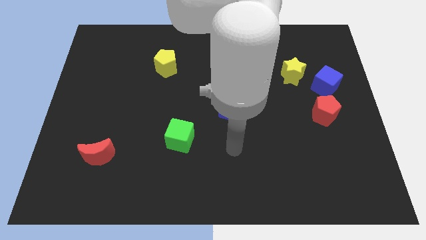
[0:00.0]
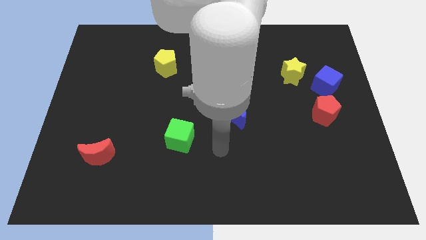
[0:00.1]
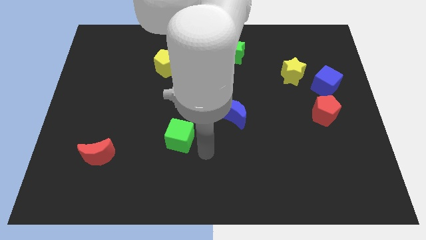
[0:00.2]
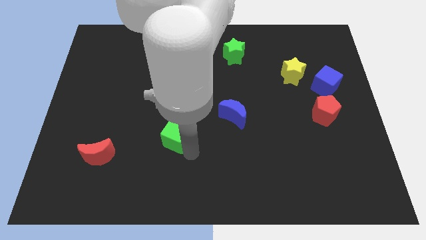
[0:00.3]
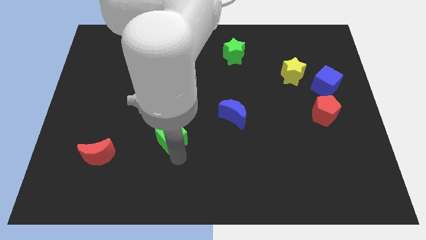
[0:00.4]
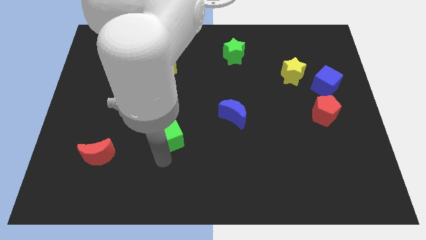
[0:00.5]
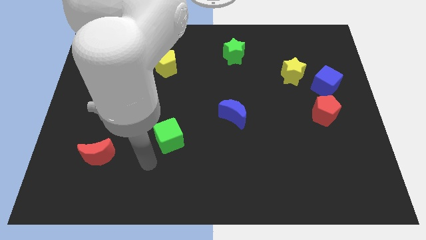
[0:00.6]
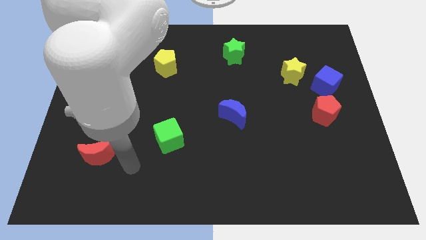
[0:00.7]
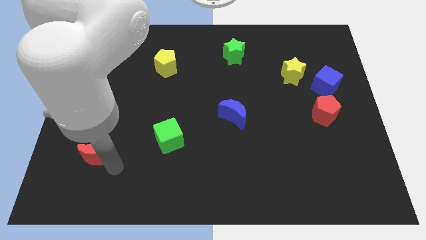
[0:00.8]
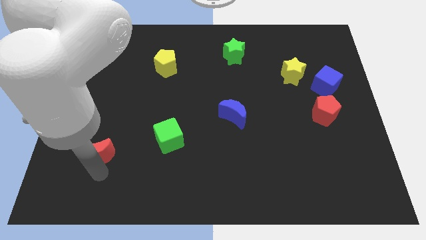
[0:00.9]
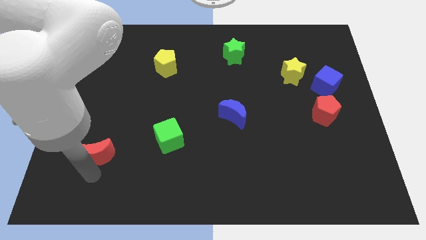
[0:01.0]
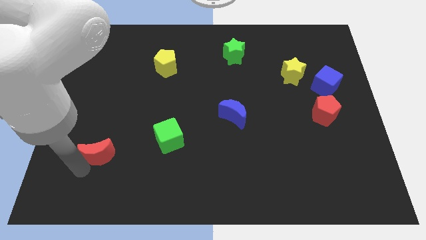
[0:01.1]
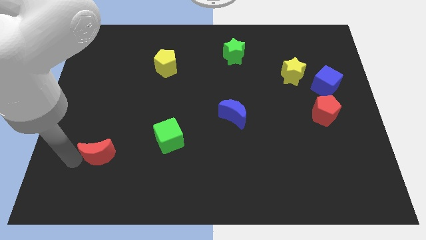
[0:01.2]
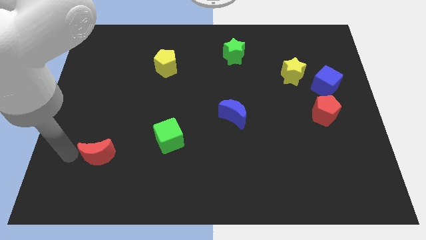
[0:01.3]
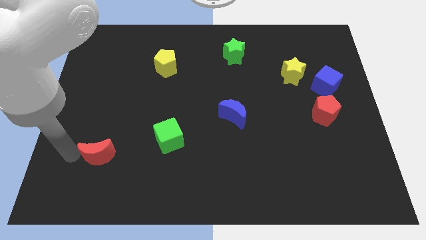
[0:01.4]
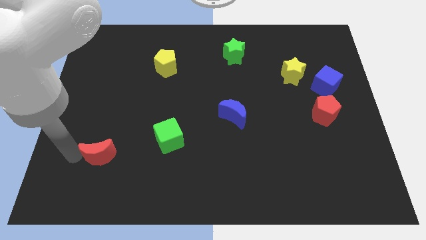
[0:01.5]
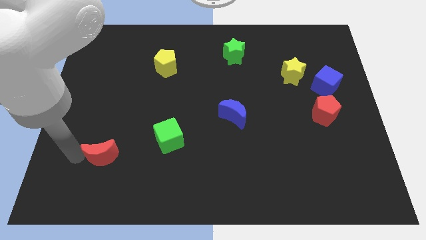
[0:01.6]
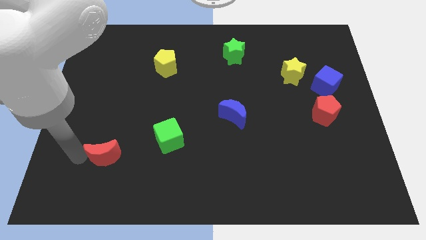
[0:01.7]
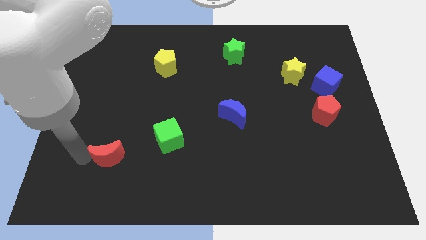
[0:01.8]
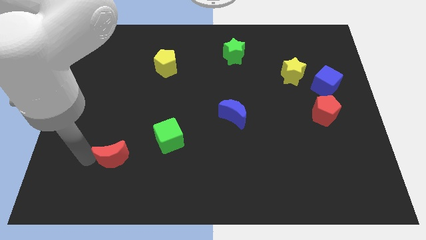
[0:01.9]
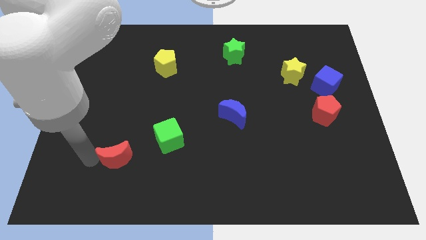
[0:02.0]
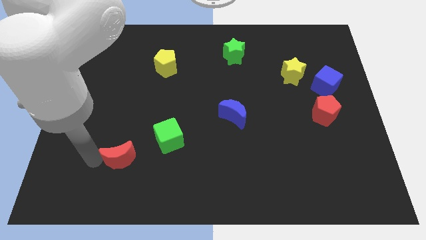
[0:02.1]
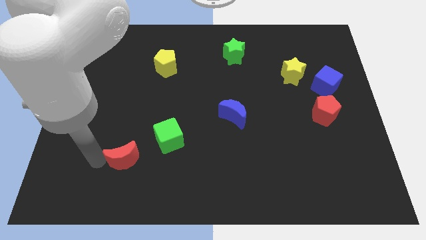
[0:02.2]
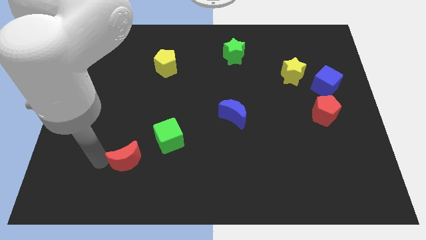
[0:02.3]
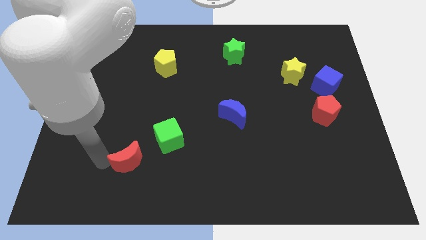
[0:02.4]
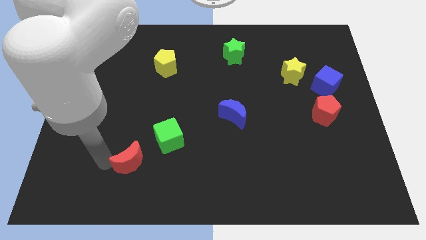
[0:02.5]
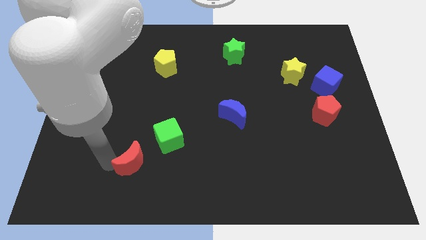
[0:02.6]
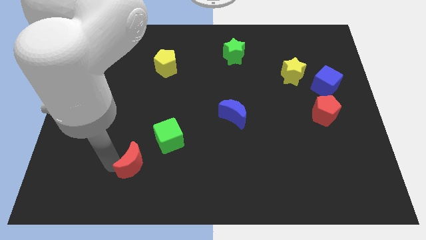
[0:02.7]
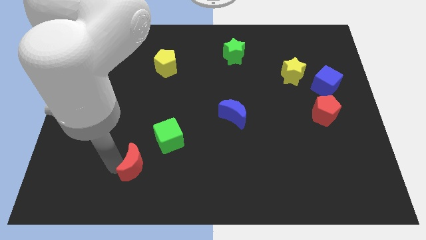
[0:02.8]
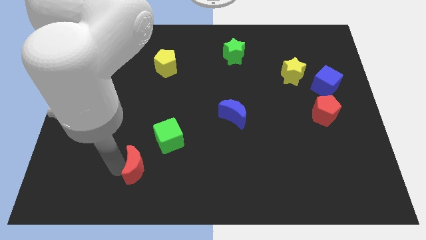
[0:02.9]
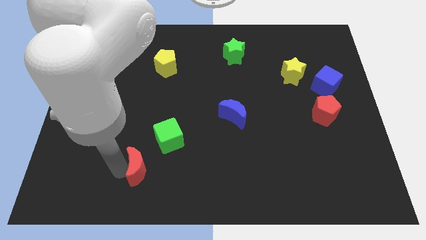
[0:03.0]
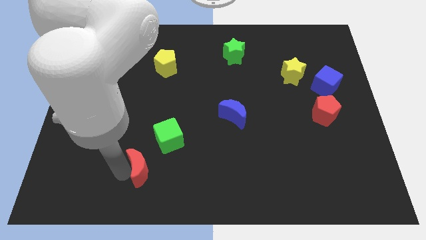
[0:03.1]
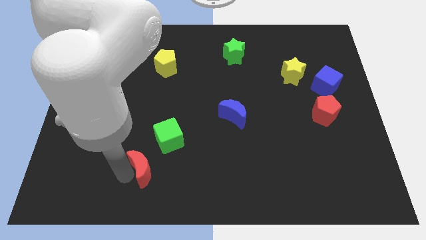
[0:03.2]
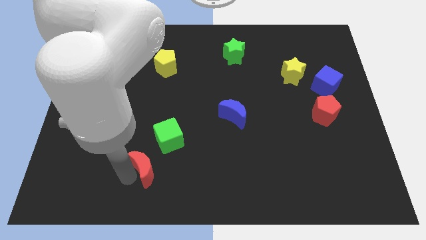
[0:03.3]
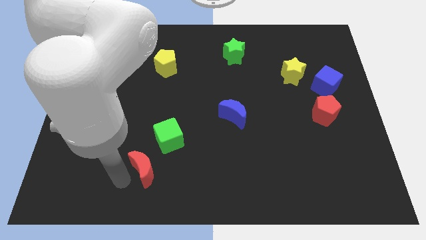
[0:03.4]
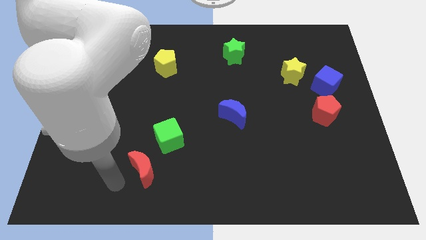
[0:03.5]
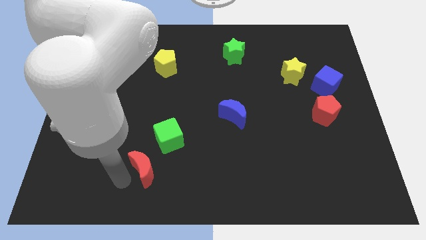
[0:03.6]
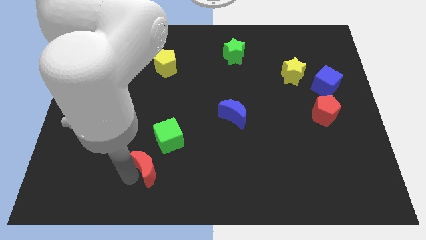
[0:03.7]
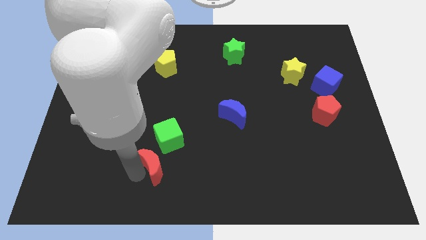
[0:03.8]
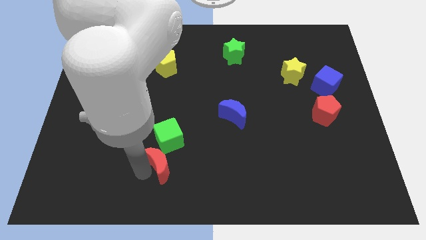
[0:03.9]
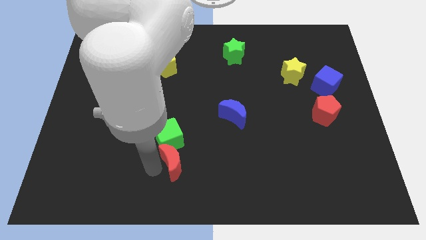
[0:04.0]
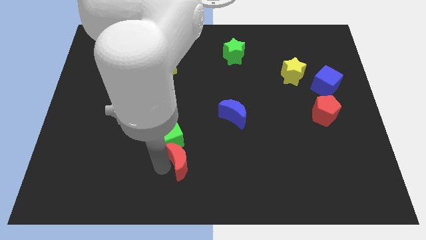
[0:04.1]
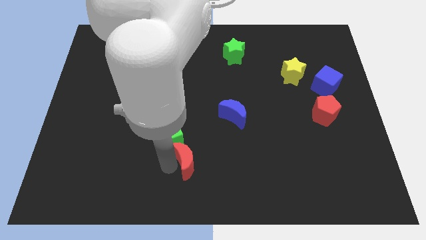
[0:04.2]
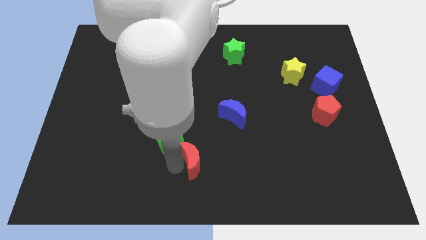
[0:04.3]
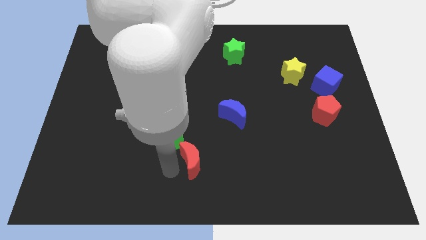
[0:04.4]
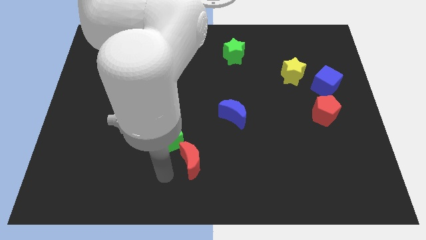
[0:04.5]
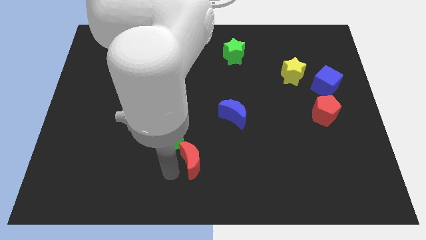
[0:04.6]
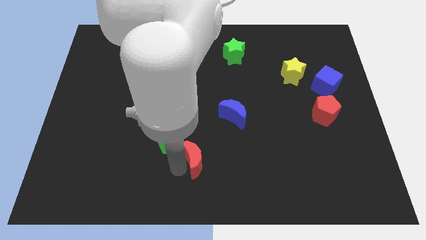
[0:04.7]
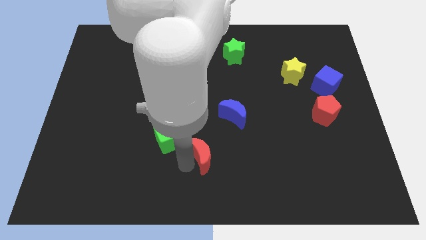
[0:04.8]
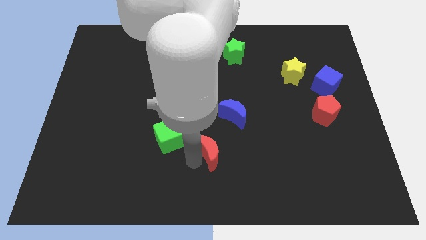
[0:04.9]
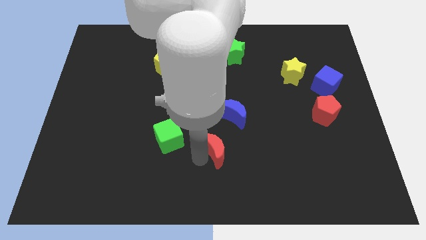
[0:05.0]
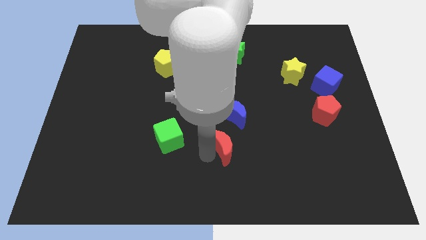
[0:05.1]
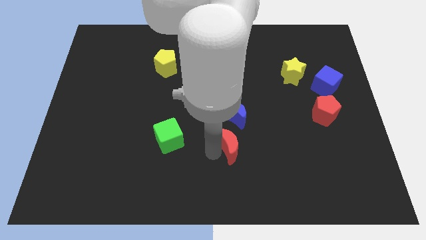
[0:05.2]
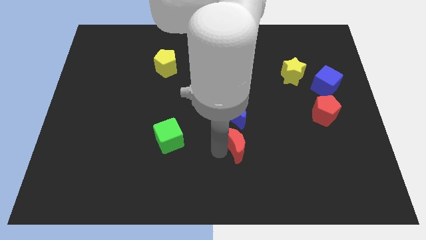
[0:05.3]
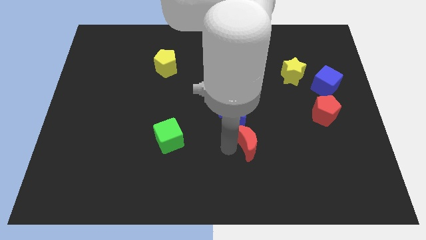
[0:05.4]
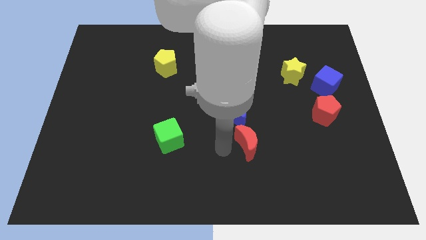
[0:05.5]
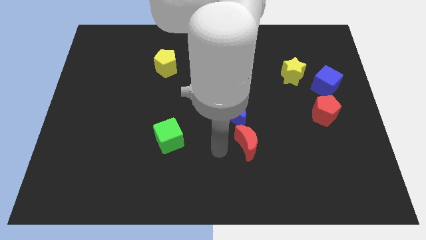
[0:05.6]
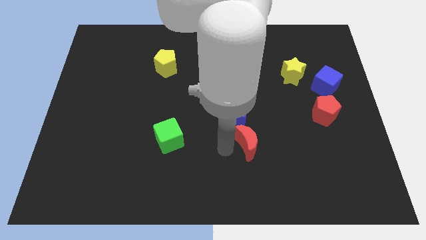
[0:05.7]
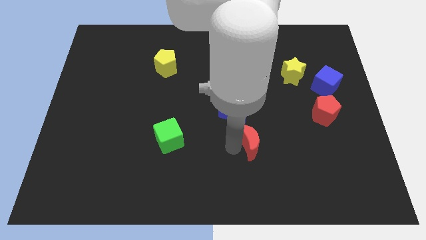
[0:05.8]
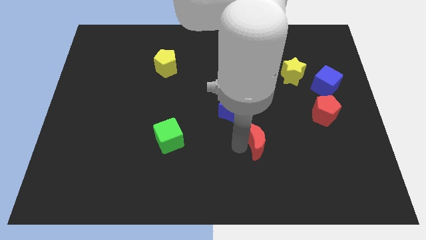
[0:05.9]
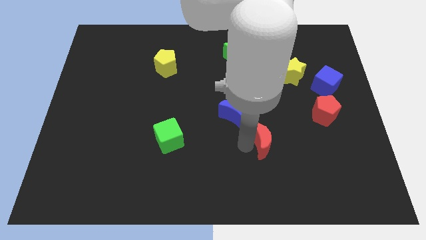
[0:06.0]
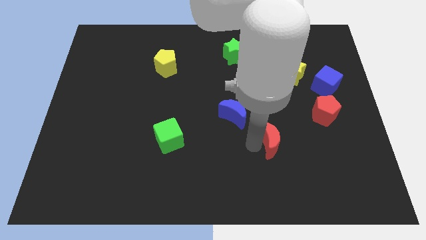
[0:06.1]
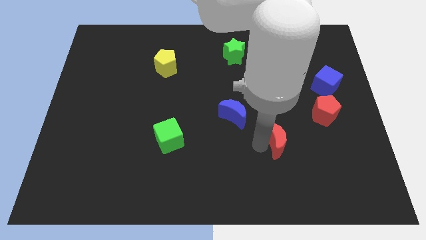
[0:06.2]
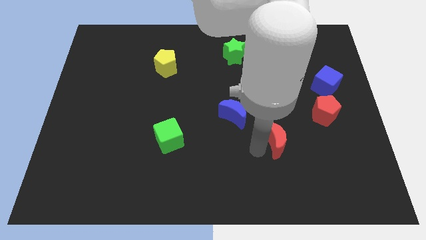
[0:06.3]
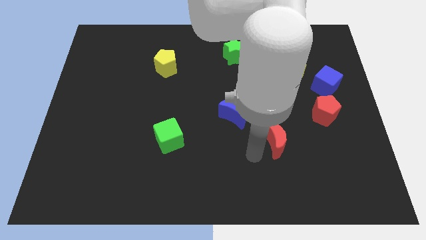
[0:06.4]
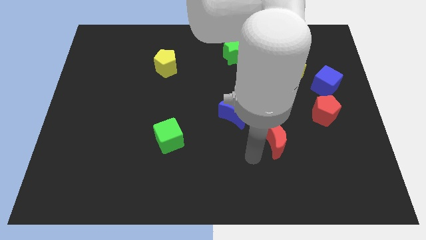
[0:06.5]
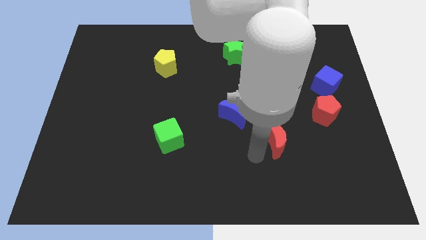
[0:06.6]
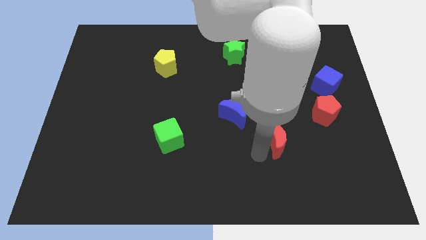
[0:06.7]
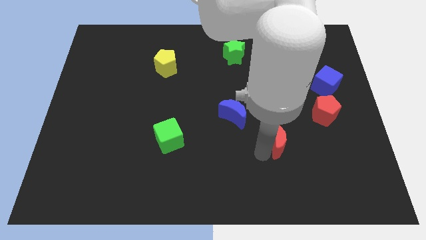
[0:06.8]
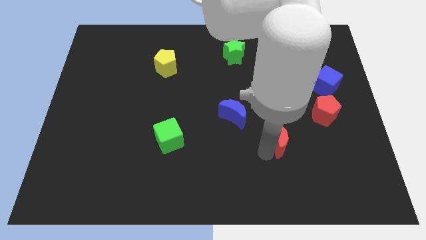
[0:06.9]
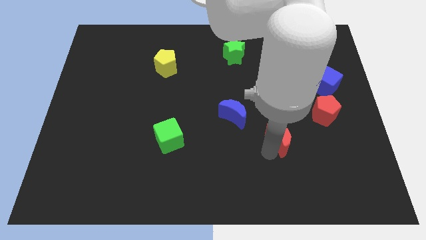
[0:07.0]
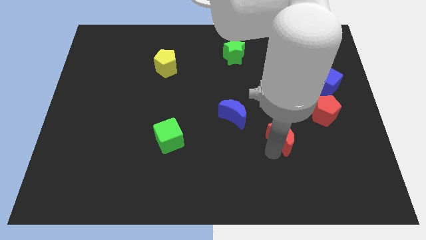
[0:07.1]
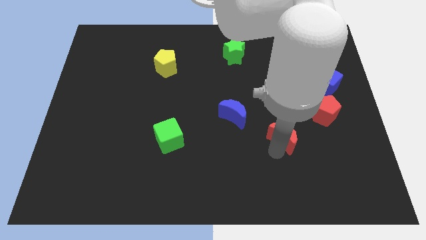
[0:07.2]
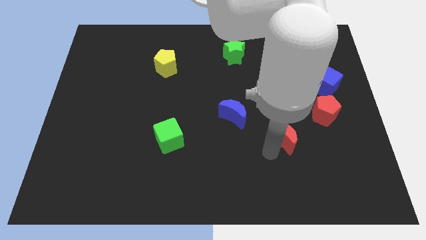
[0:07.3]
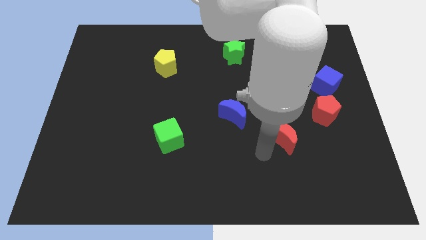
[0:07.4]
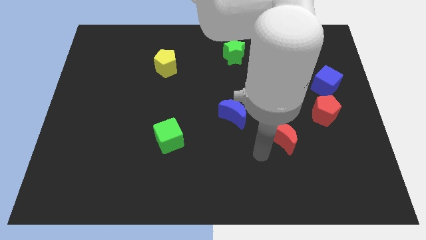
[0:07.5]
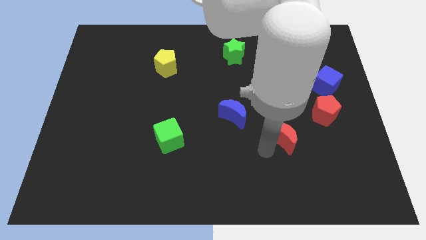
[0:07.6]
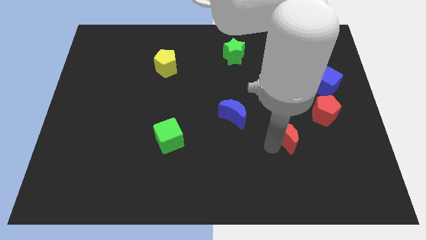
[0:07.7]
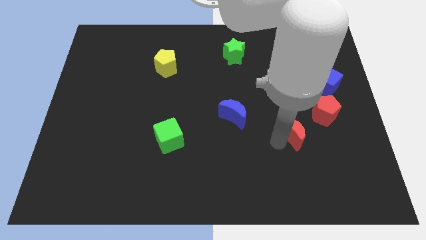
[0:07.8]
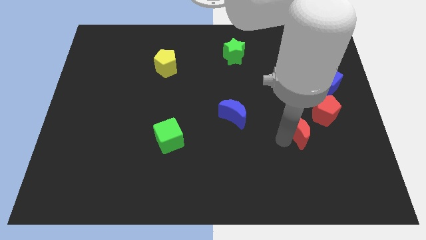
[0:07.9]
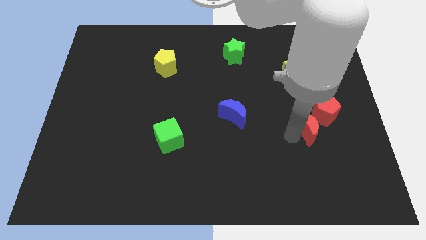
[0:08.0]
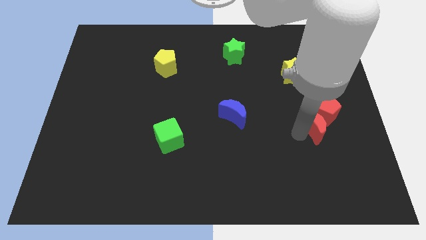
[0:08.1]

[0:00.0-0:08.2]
slide the red moon next to the red pentagon
